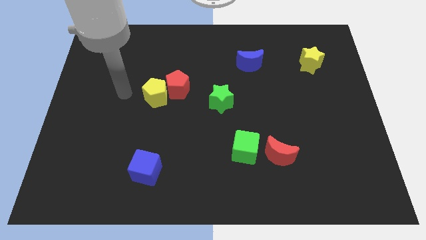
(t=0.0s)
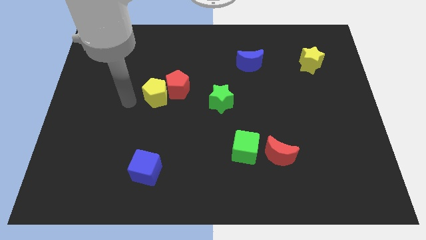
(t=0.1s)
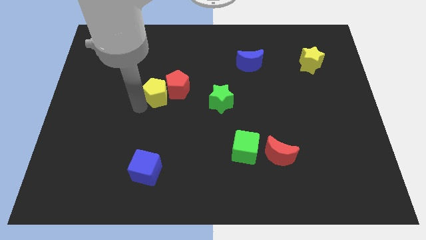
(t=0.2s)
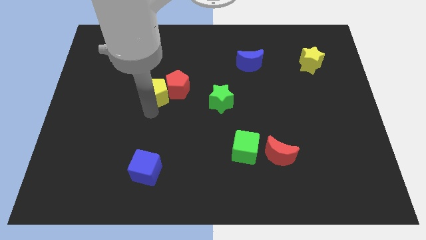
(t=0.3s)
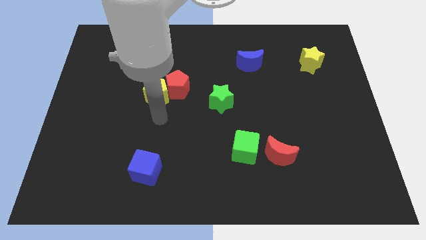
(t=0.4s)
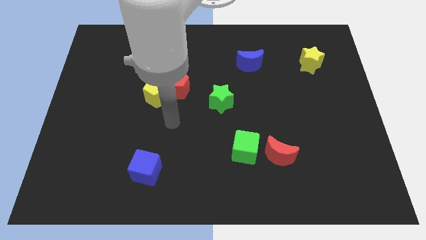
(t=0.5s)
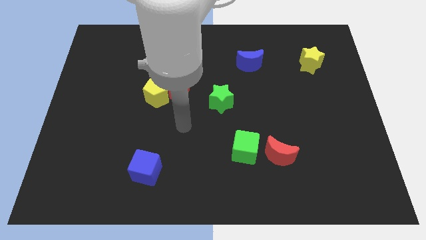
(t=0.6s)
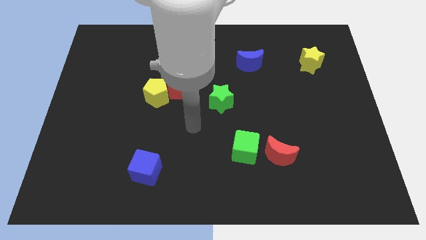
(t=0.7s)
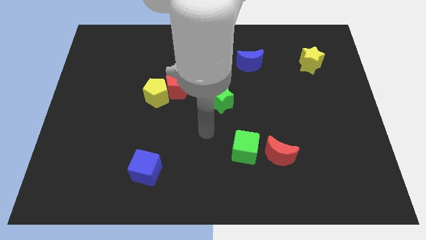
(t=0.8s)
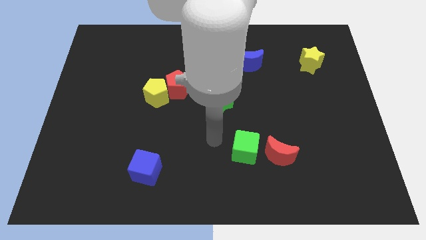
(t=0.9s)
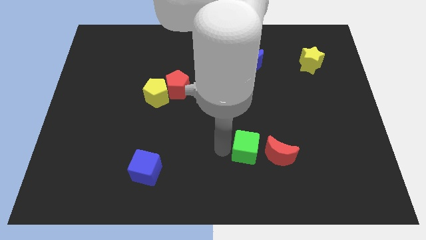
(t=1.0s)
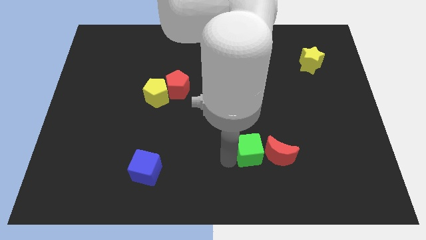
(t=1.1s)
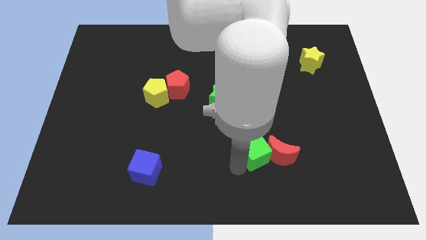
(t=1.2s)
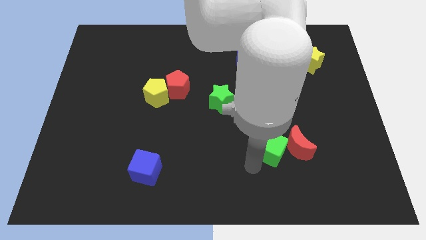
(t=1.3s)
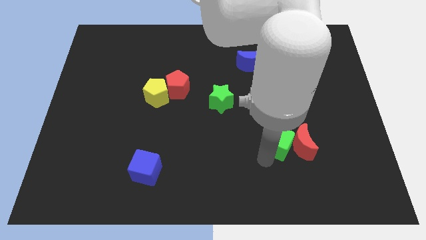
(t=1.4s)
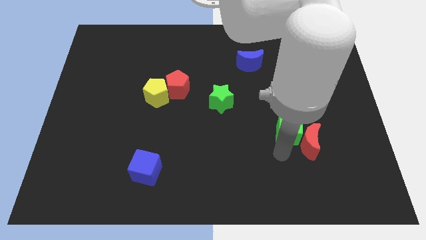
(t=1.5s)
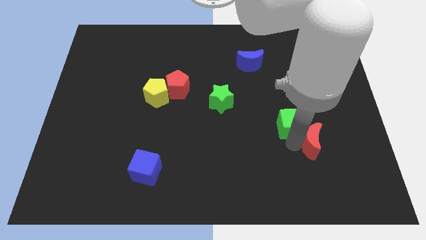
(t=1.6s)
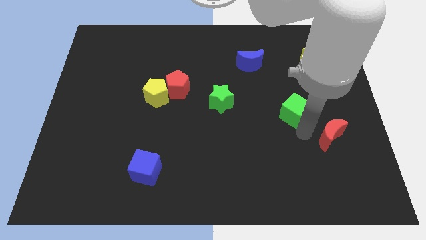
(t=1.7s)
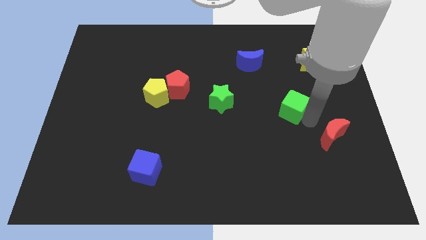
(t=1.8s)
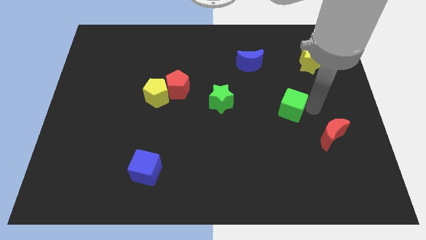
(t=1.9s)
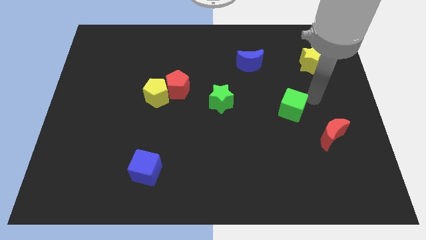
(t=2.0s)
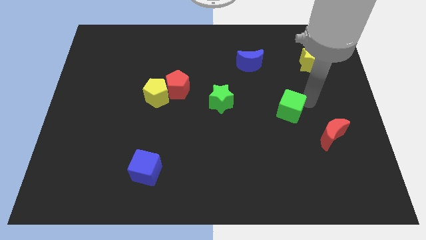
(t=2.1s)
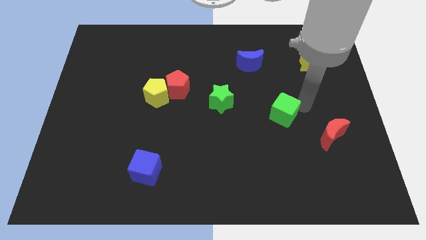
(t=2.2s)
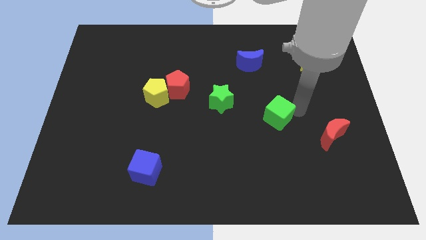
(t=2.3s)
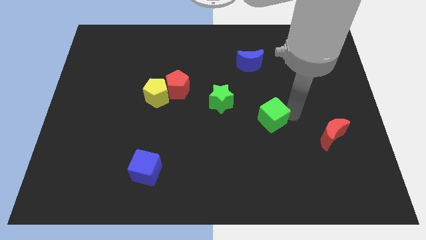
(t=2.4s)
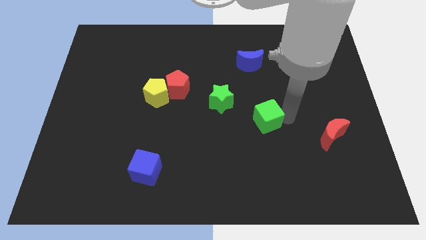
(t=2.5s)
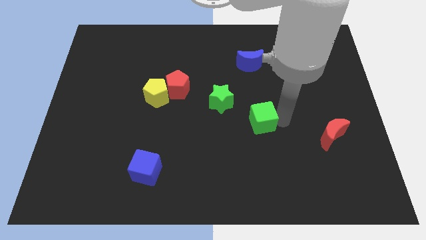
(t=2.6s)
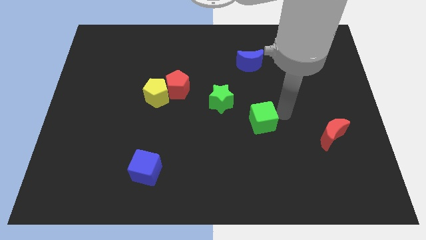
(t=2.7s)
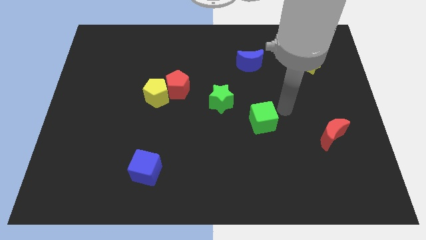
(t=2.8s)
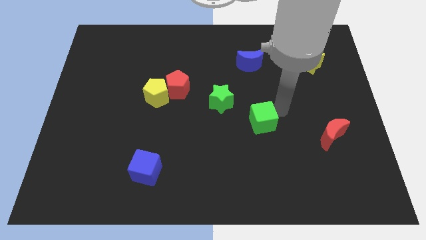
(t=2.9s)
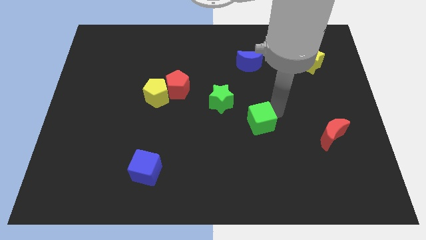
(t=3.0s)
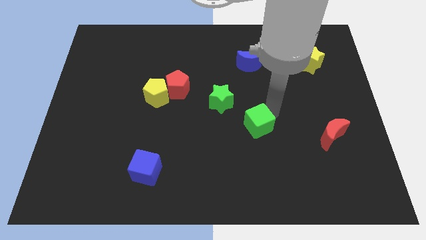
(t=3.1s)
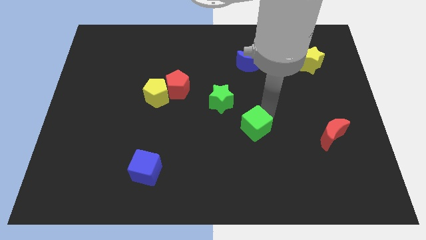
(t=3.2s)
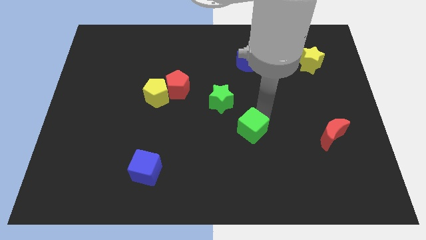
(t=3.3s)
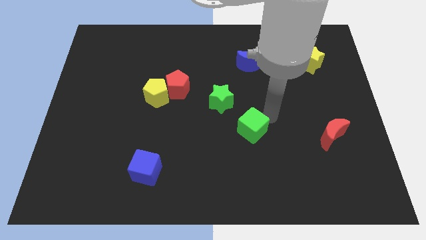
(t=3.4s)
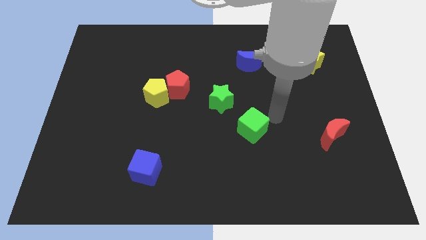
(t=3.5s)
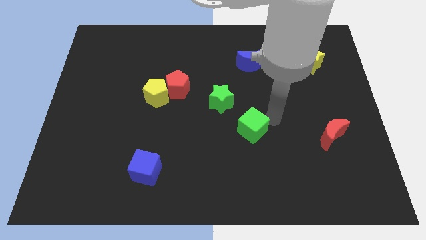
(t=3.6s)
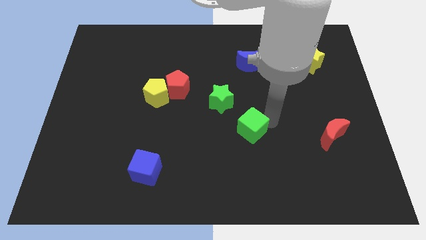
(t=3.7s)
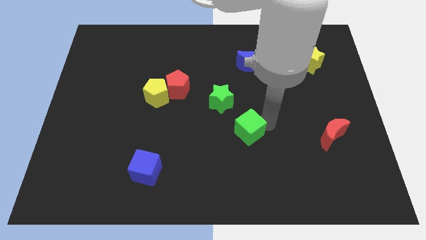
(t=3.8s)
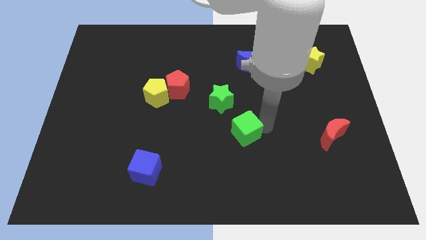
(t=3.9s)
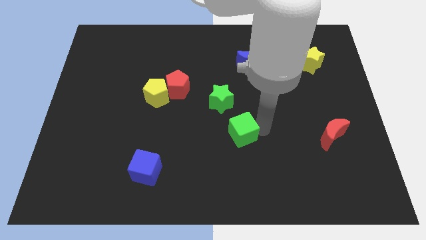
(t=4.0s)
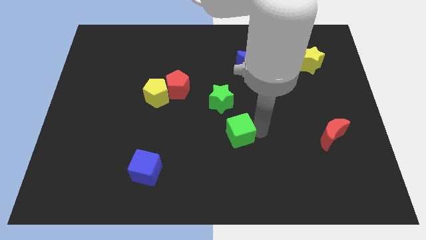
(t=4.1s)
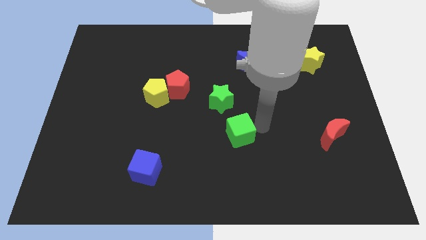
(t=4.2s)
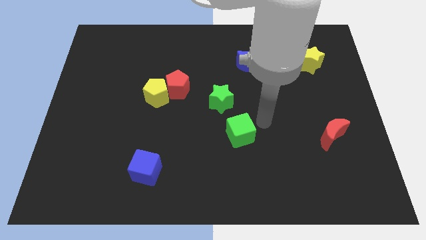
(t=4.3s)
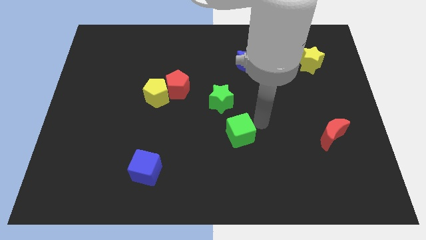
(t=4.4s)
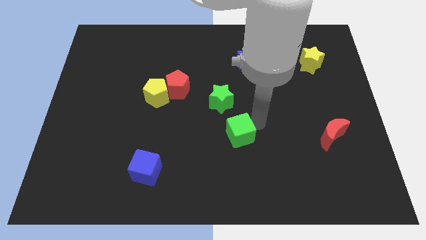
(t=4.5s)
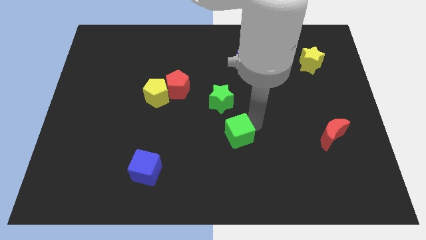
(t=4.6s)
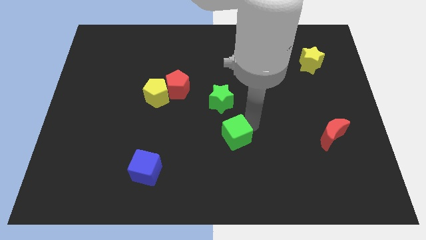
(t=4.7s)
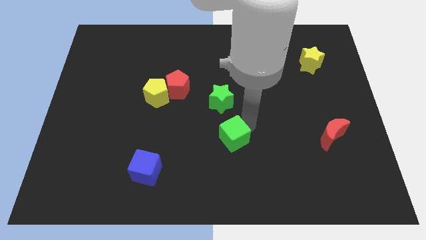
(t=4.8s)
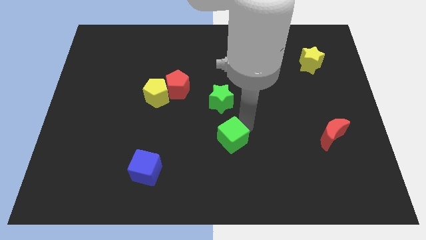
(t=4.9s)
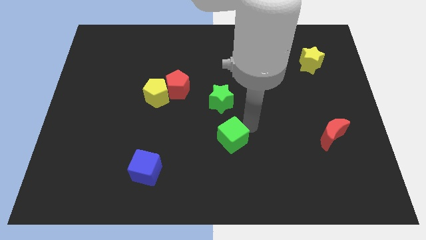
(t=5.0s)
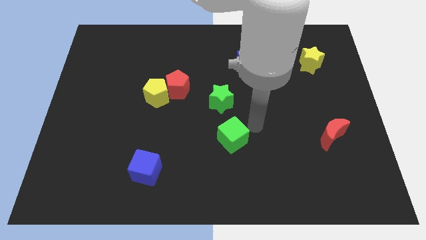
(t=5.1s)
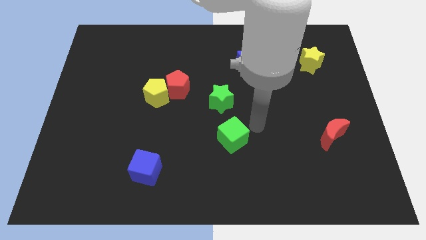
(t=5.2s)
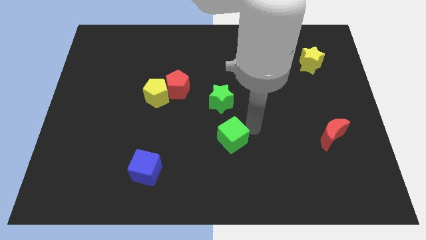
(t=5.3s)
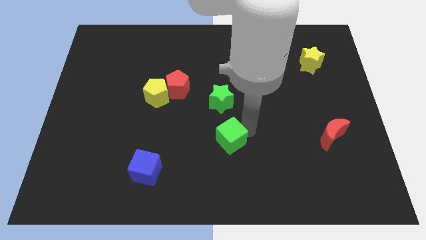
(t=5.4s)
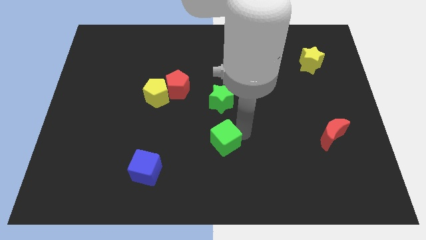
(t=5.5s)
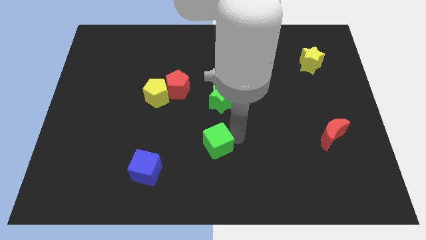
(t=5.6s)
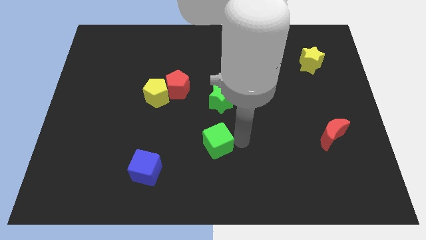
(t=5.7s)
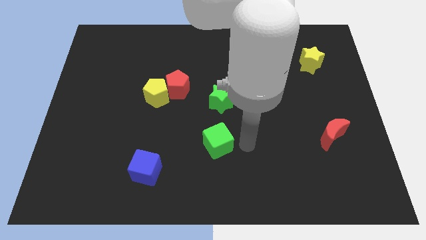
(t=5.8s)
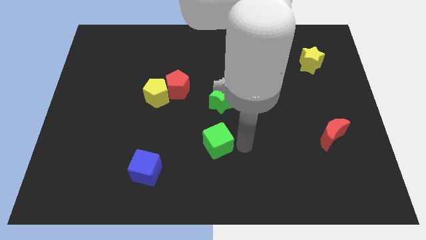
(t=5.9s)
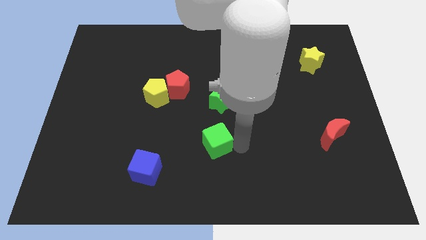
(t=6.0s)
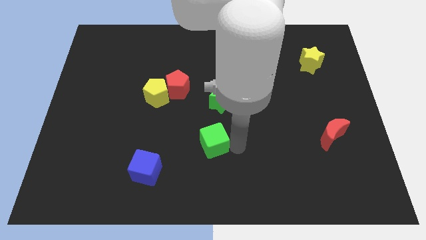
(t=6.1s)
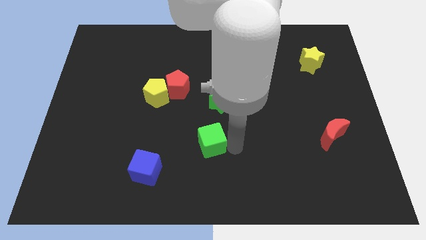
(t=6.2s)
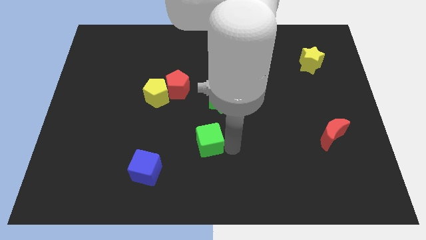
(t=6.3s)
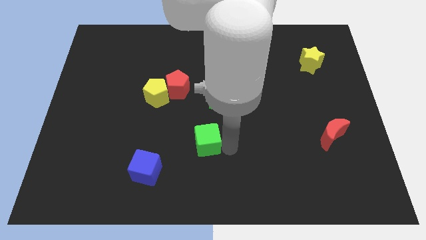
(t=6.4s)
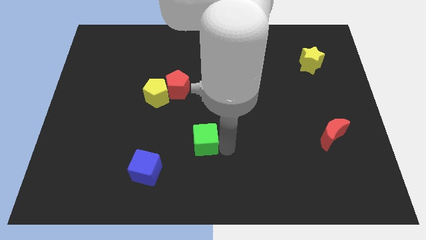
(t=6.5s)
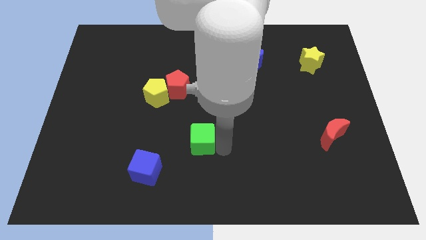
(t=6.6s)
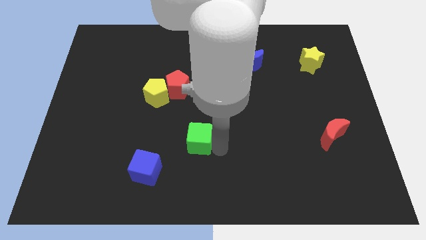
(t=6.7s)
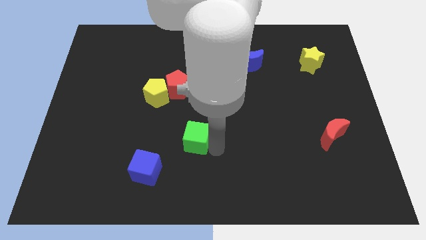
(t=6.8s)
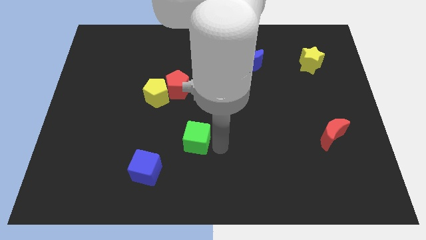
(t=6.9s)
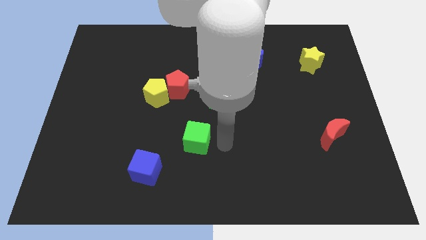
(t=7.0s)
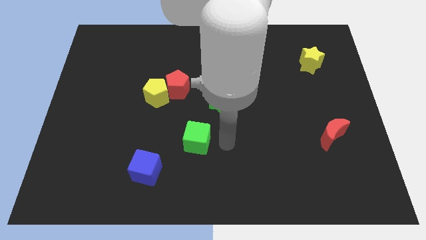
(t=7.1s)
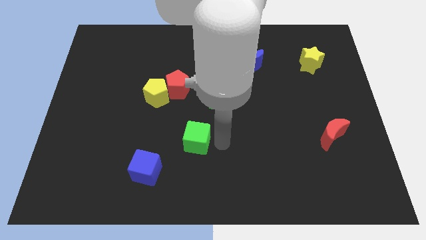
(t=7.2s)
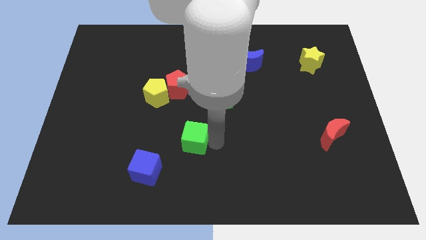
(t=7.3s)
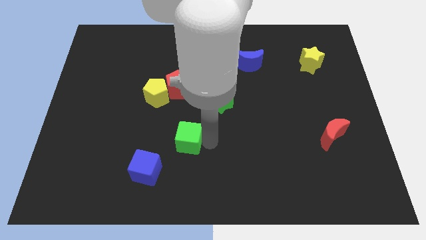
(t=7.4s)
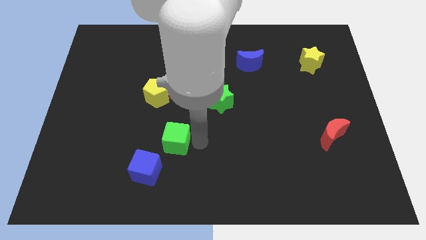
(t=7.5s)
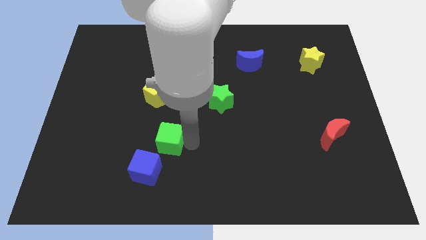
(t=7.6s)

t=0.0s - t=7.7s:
put the green cube below the yellow pentagon
